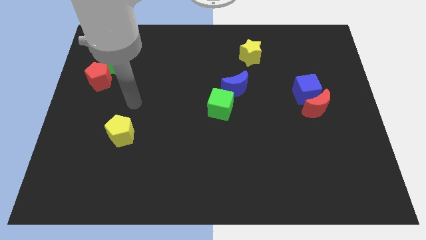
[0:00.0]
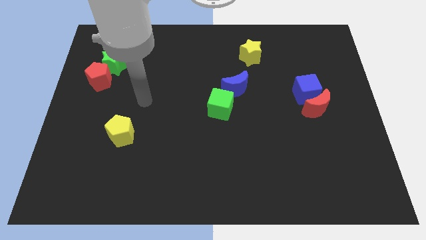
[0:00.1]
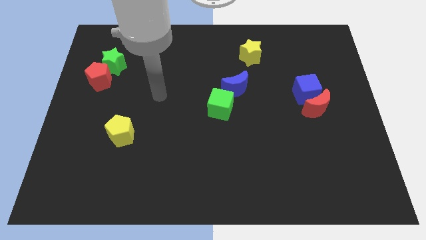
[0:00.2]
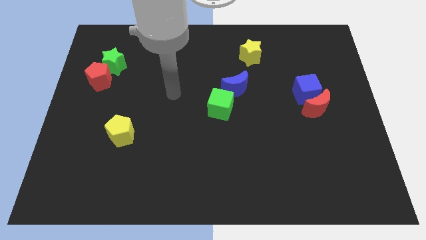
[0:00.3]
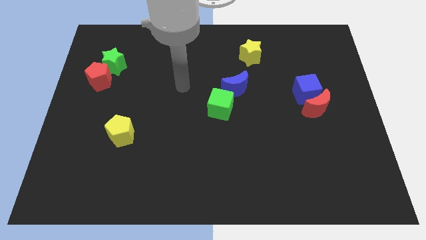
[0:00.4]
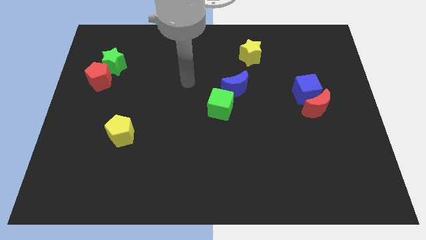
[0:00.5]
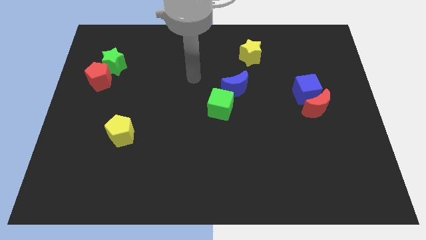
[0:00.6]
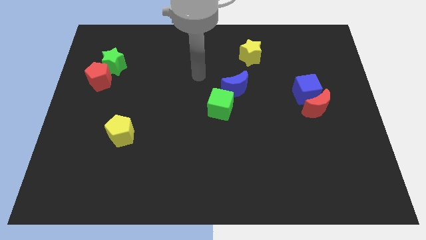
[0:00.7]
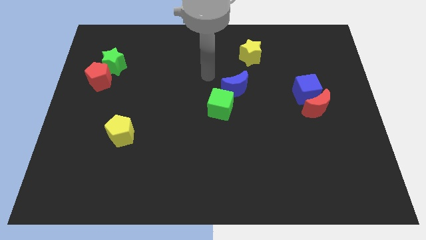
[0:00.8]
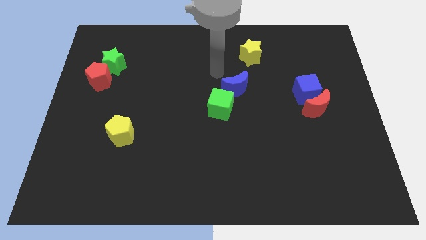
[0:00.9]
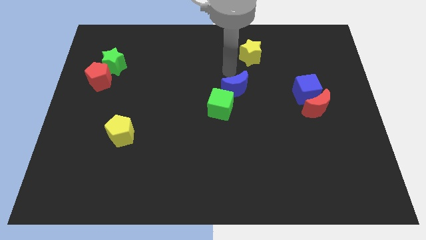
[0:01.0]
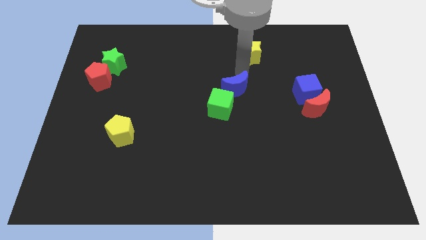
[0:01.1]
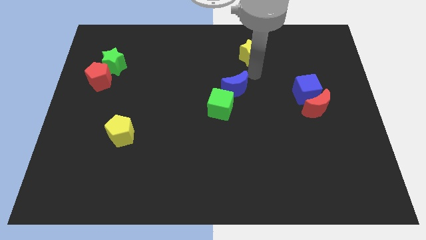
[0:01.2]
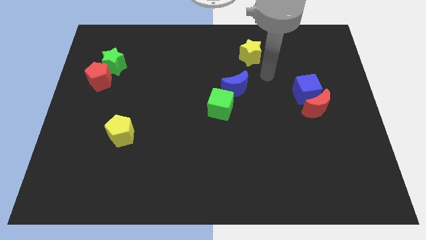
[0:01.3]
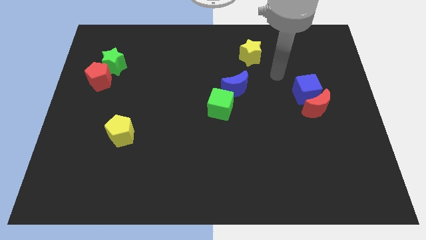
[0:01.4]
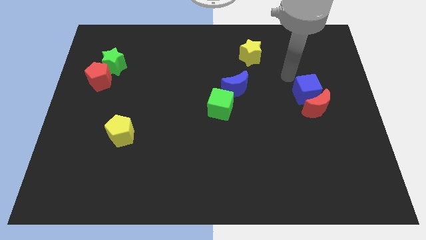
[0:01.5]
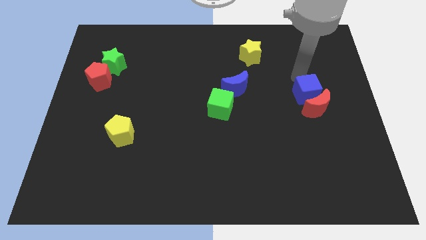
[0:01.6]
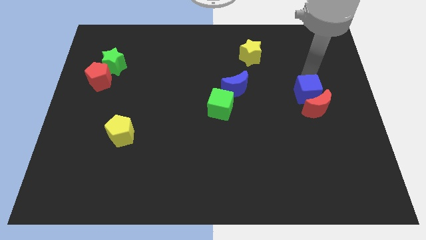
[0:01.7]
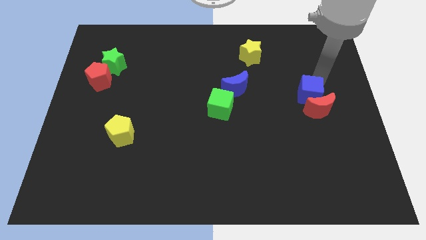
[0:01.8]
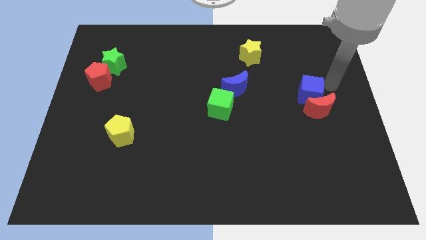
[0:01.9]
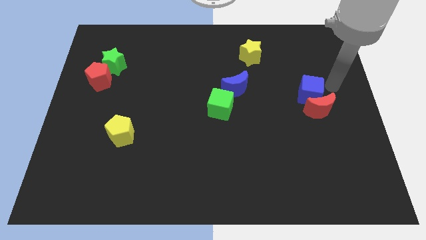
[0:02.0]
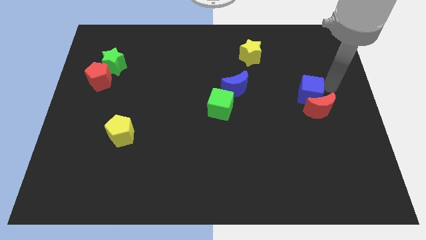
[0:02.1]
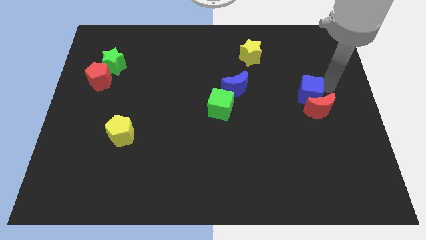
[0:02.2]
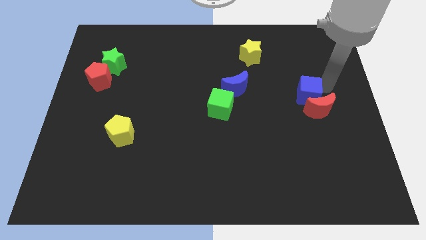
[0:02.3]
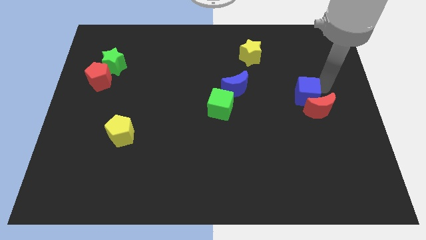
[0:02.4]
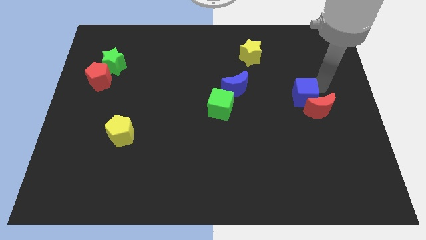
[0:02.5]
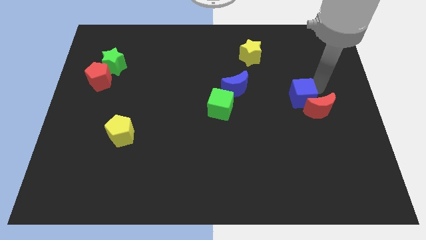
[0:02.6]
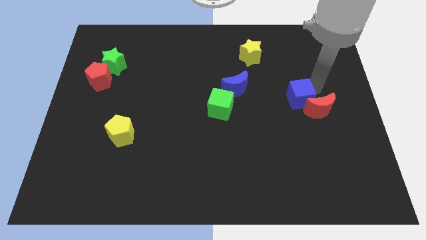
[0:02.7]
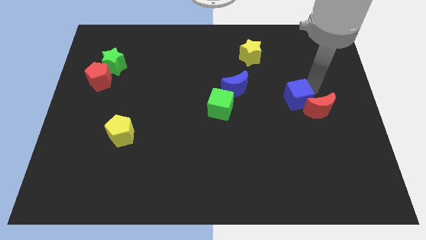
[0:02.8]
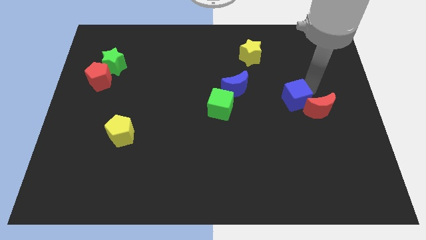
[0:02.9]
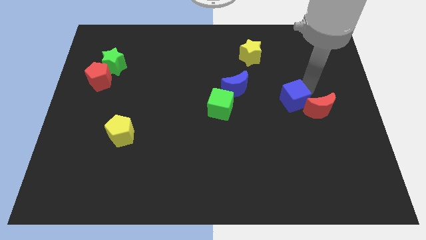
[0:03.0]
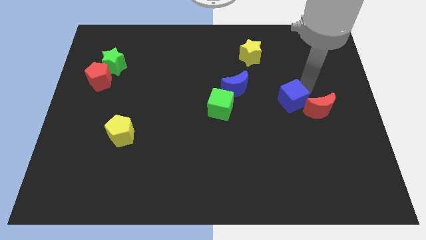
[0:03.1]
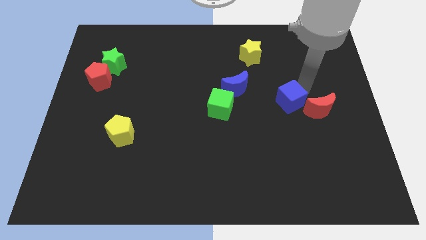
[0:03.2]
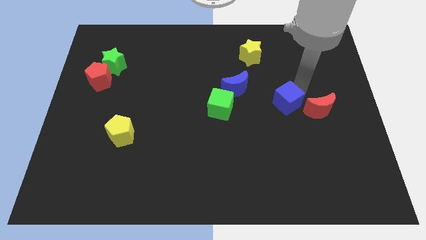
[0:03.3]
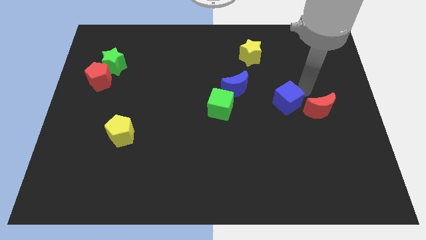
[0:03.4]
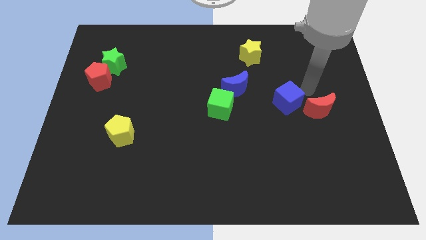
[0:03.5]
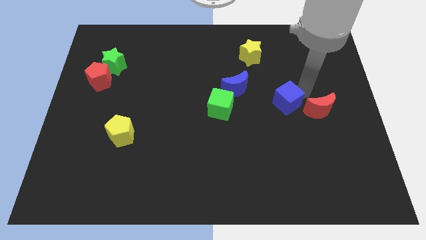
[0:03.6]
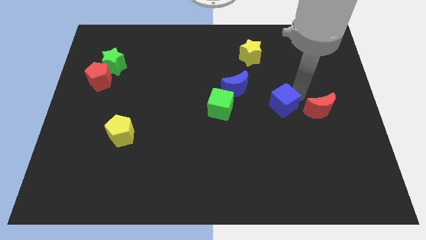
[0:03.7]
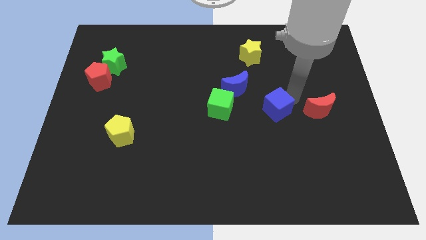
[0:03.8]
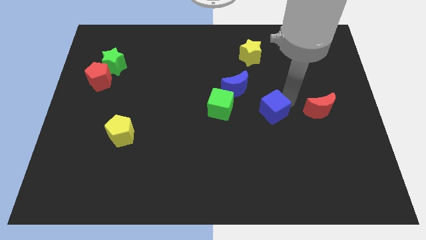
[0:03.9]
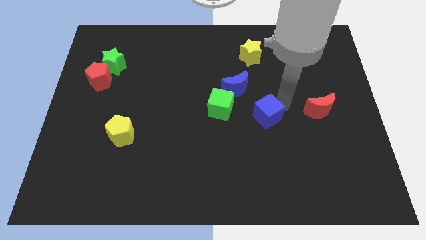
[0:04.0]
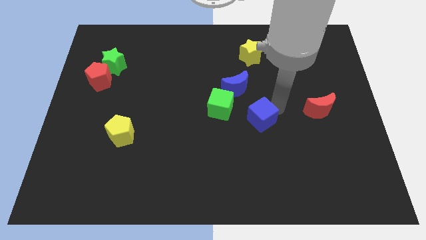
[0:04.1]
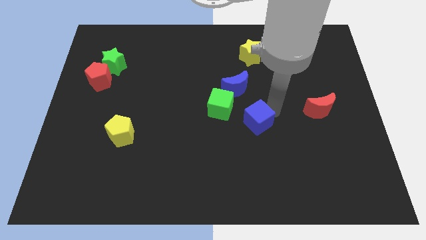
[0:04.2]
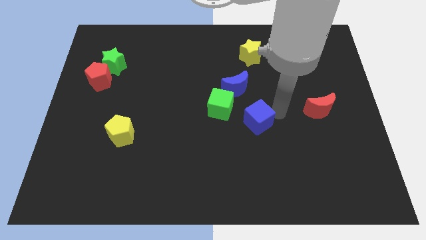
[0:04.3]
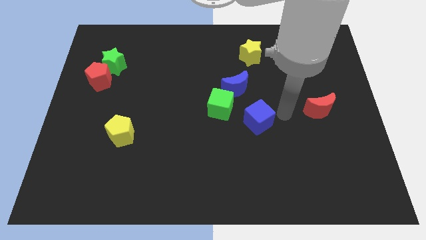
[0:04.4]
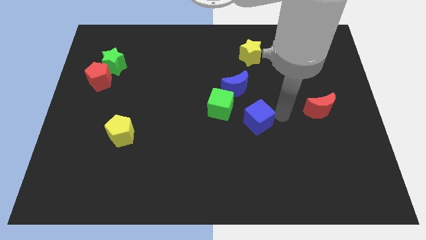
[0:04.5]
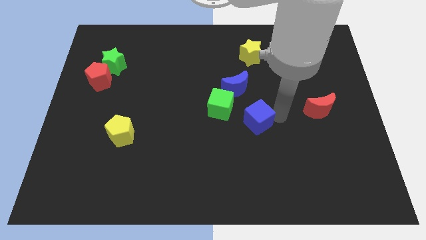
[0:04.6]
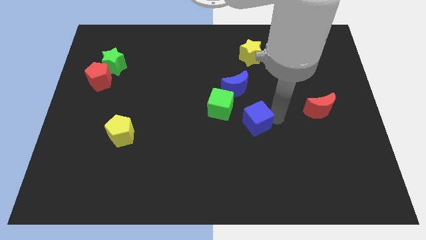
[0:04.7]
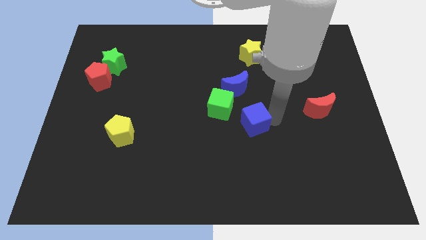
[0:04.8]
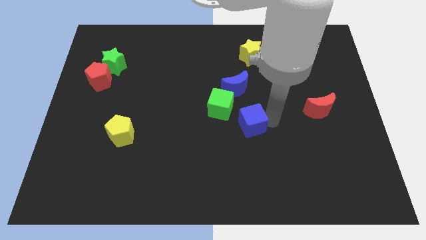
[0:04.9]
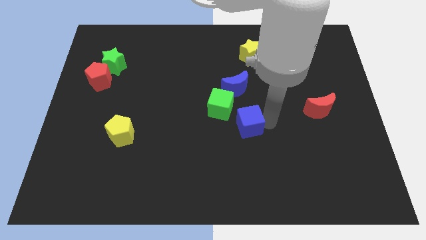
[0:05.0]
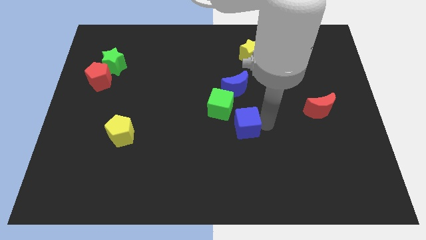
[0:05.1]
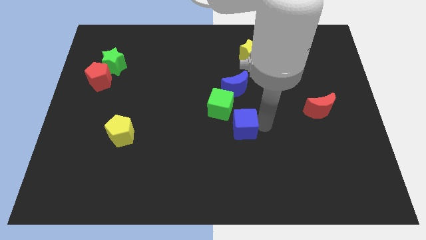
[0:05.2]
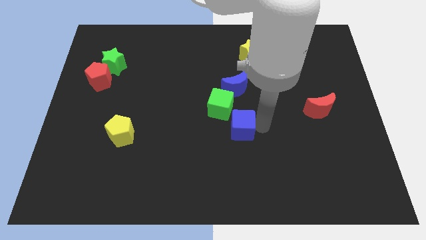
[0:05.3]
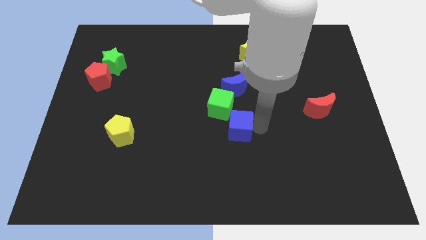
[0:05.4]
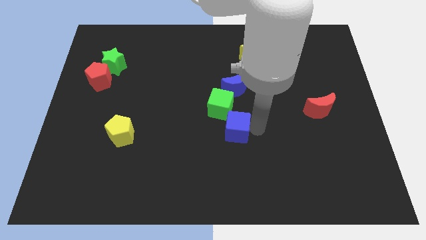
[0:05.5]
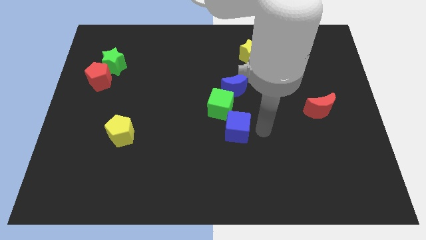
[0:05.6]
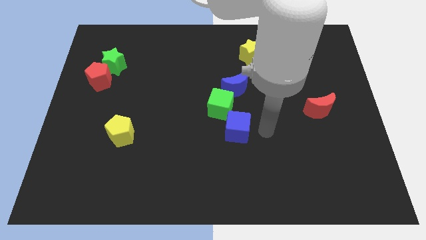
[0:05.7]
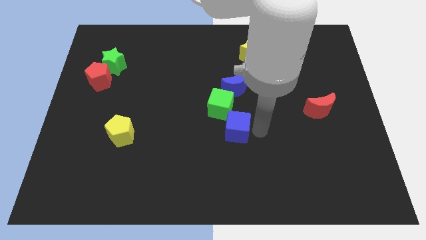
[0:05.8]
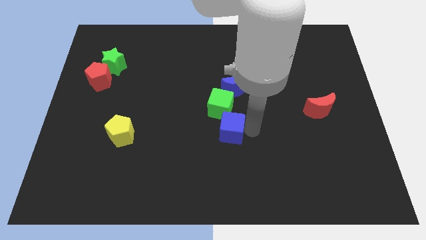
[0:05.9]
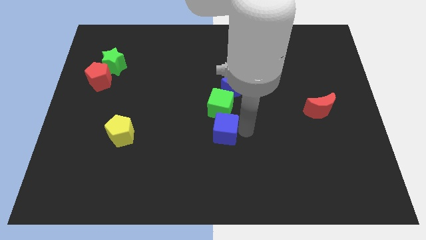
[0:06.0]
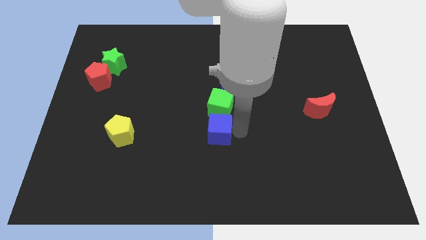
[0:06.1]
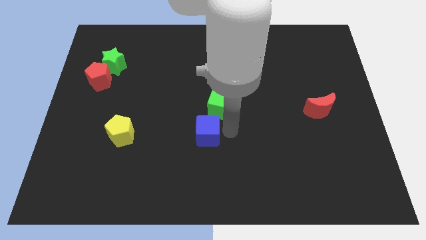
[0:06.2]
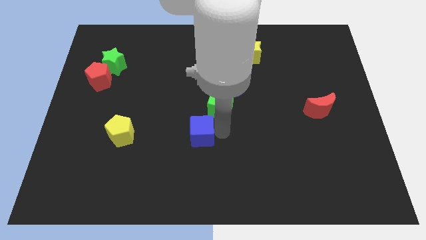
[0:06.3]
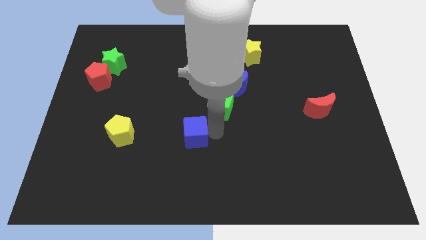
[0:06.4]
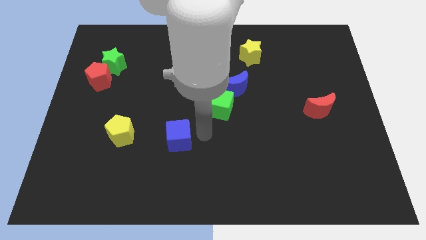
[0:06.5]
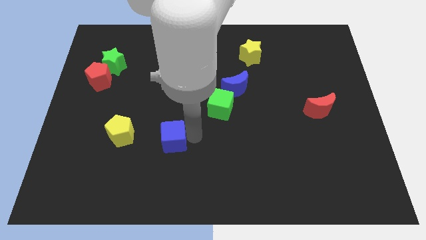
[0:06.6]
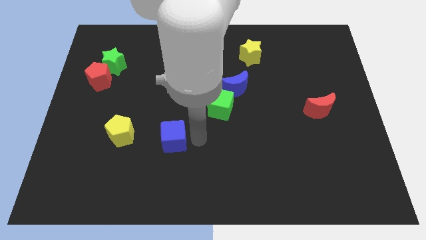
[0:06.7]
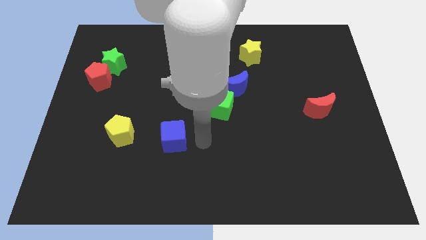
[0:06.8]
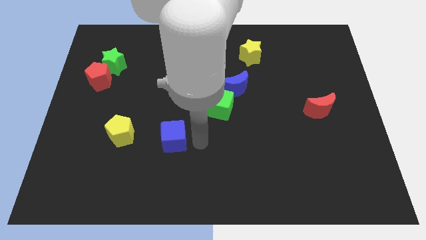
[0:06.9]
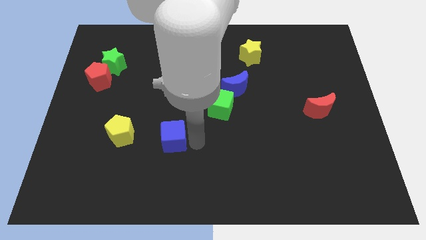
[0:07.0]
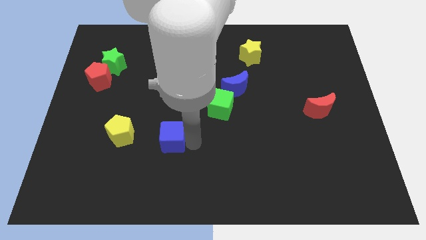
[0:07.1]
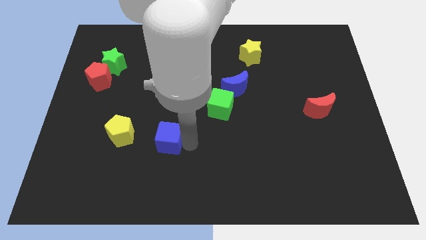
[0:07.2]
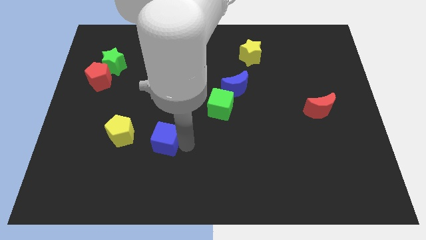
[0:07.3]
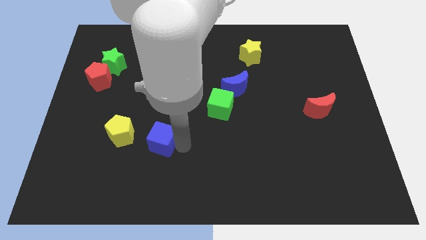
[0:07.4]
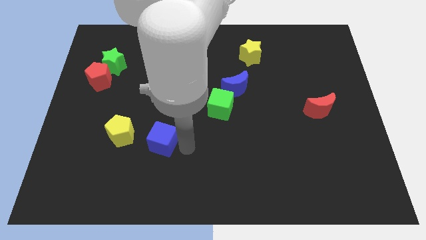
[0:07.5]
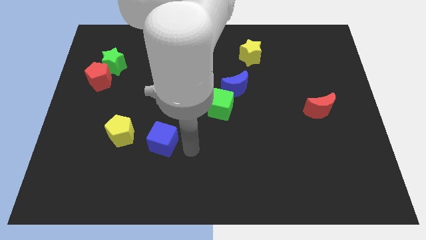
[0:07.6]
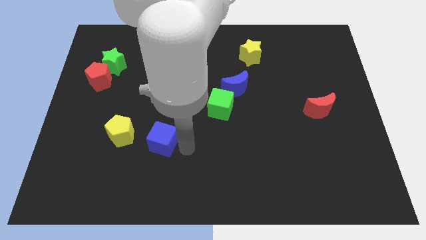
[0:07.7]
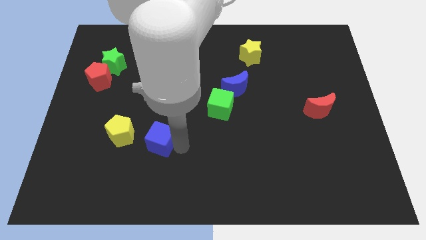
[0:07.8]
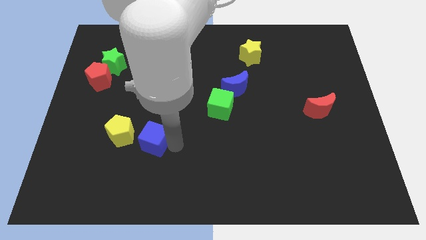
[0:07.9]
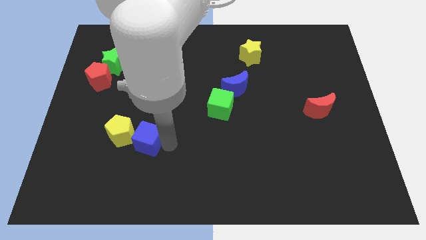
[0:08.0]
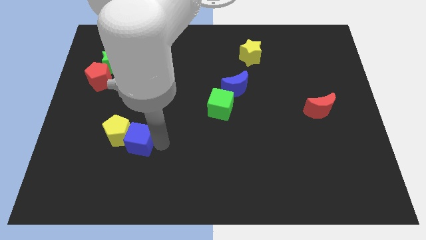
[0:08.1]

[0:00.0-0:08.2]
move the blue cube to the yellow pentagon
